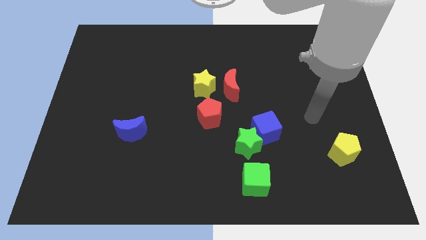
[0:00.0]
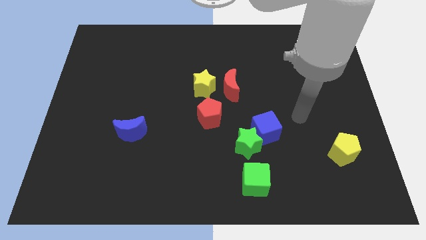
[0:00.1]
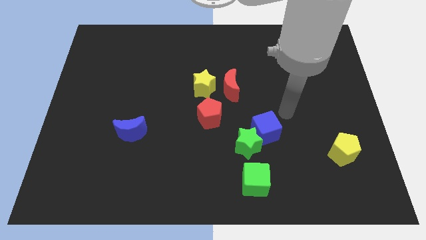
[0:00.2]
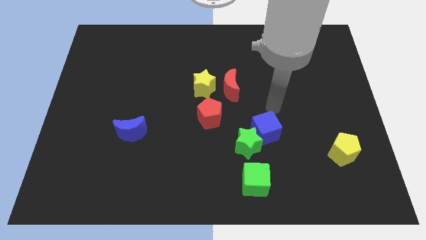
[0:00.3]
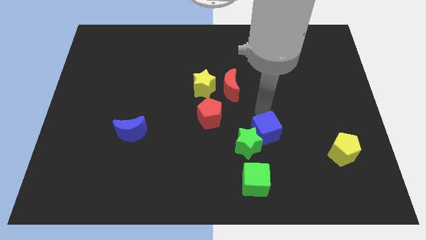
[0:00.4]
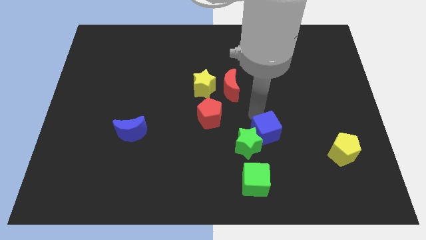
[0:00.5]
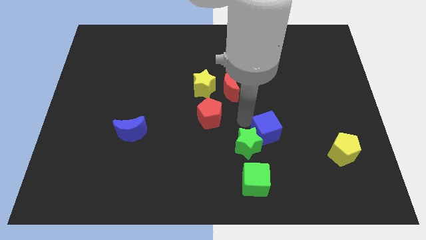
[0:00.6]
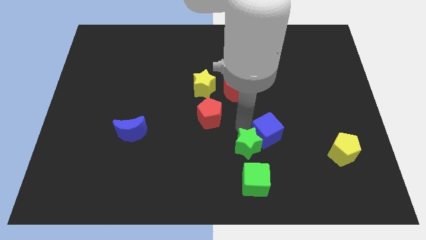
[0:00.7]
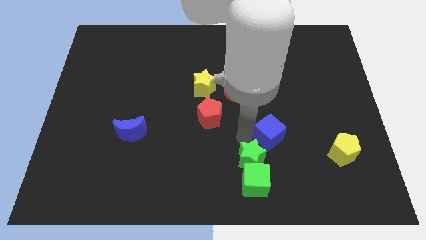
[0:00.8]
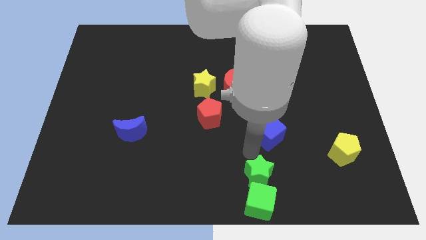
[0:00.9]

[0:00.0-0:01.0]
move the blue cube away from the green star

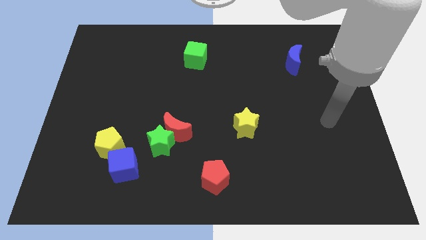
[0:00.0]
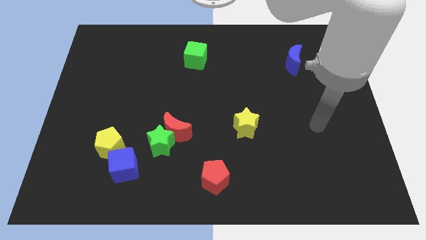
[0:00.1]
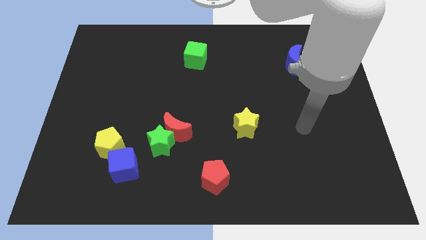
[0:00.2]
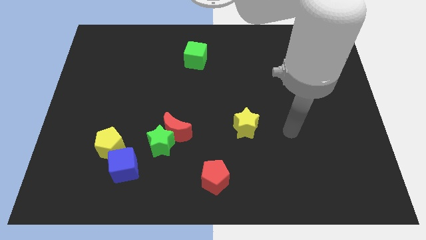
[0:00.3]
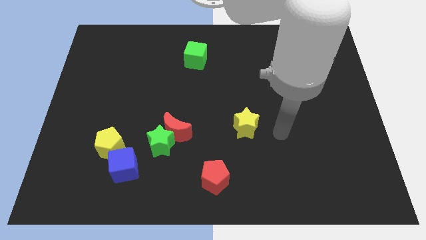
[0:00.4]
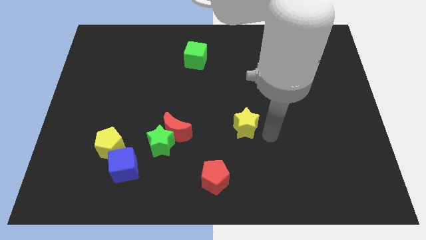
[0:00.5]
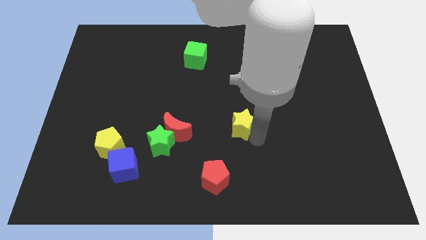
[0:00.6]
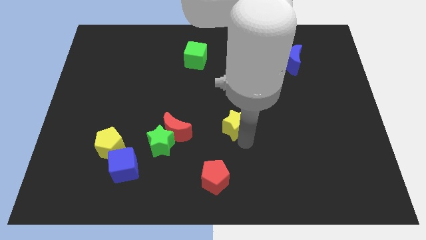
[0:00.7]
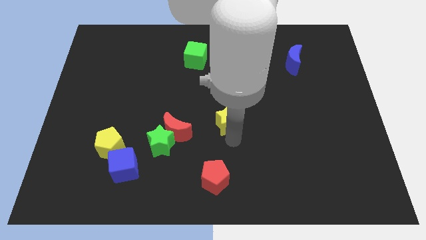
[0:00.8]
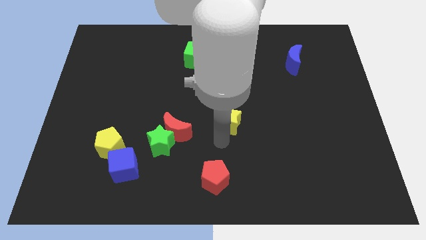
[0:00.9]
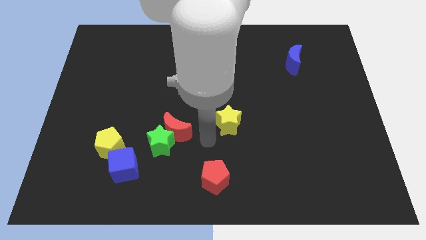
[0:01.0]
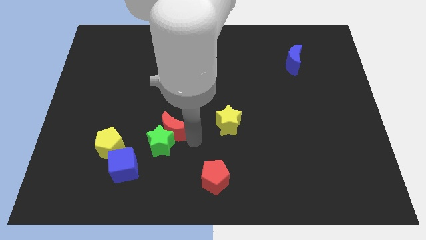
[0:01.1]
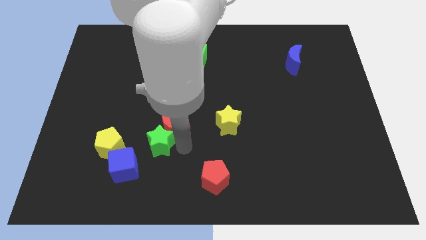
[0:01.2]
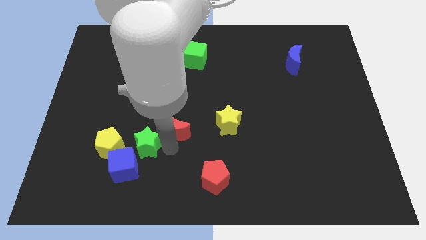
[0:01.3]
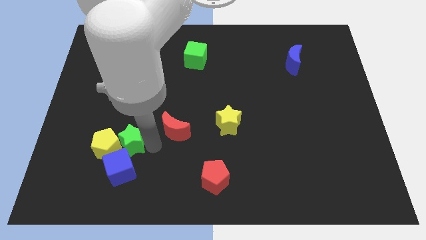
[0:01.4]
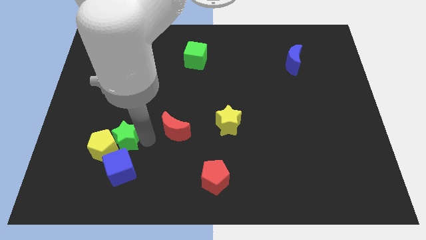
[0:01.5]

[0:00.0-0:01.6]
separate the red moon from the green star

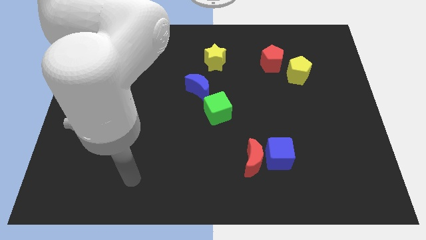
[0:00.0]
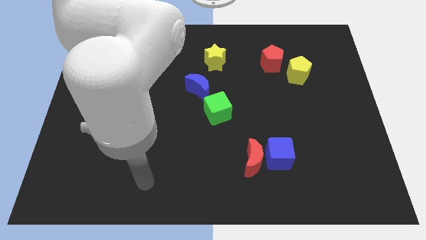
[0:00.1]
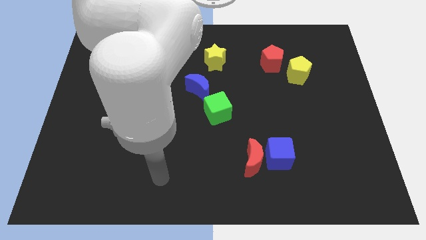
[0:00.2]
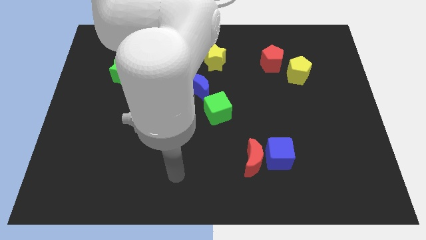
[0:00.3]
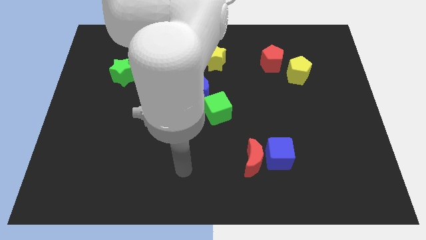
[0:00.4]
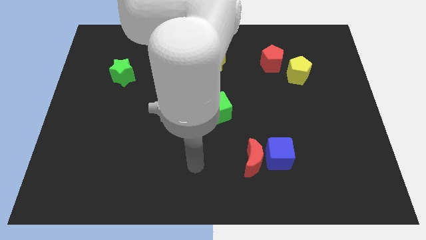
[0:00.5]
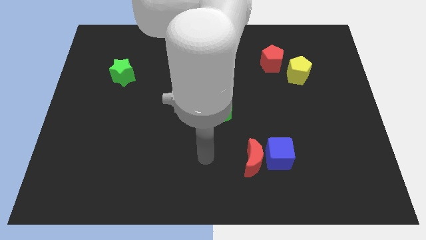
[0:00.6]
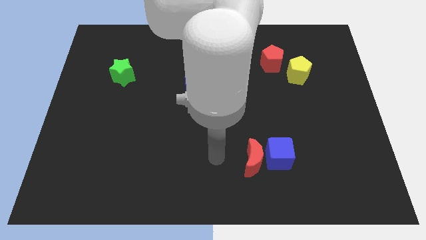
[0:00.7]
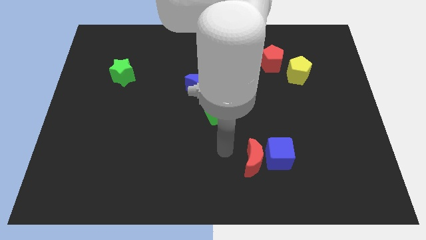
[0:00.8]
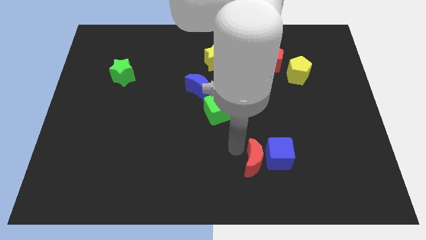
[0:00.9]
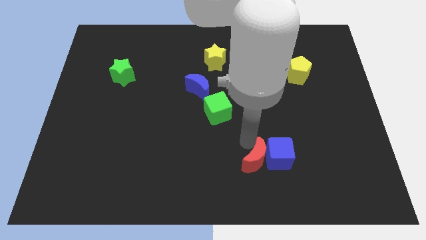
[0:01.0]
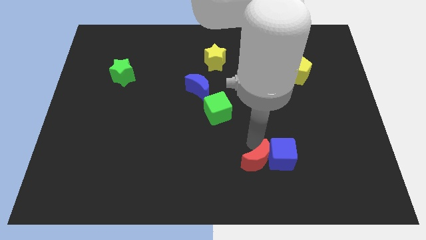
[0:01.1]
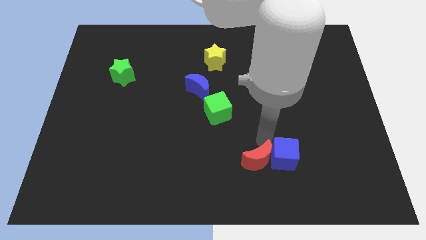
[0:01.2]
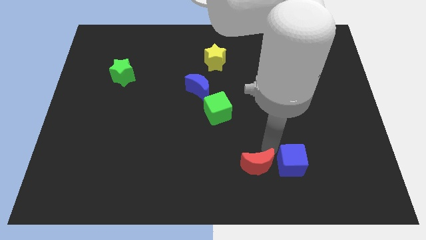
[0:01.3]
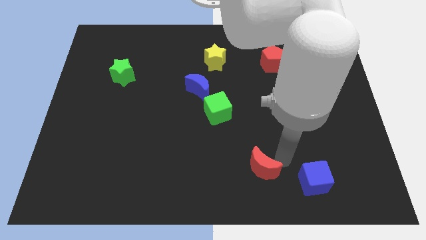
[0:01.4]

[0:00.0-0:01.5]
pull the red moon apart from the blue cube

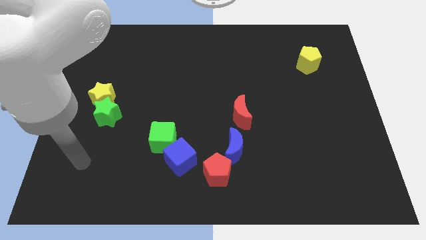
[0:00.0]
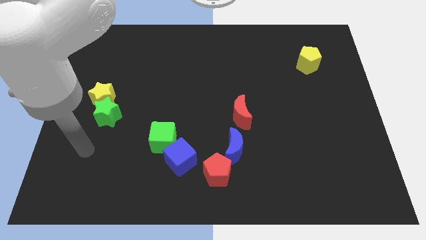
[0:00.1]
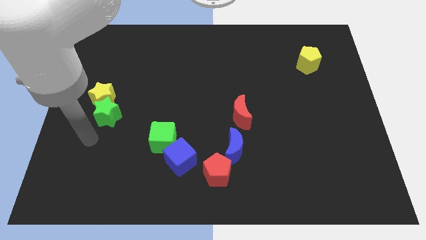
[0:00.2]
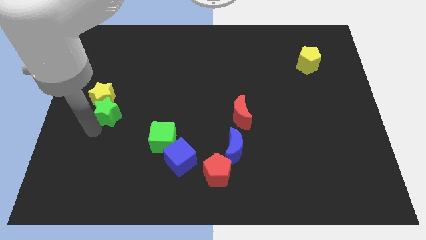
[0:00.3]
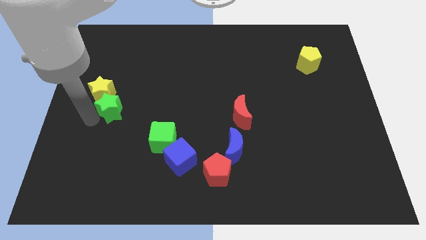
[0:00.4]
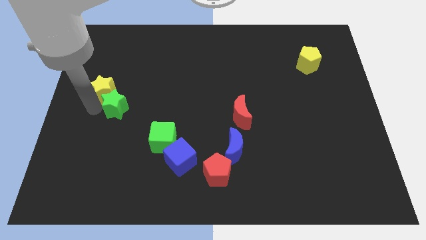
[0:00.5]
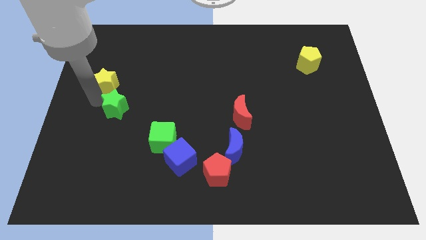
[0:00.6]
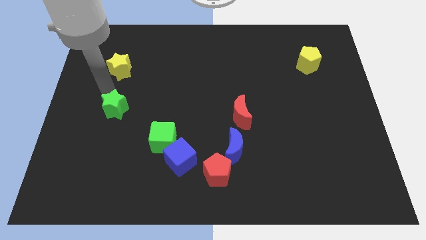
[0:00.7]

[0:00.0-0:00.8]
separate the green star from the yellow star

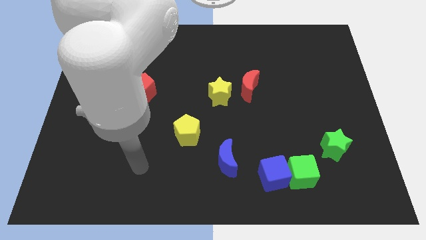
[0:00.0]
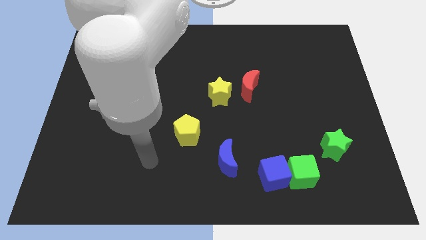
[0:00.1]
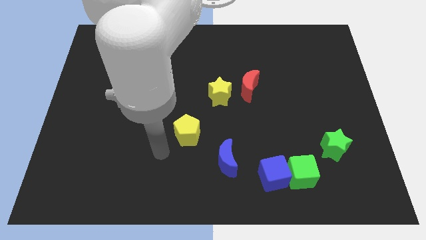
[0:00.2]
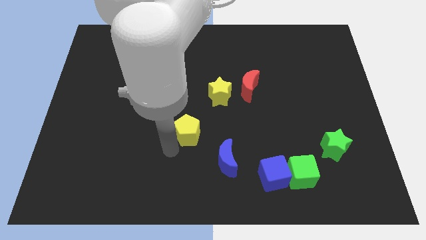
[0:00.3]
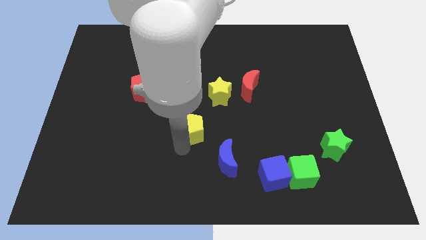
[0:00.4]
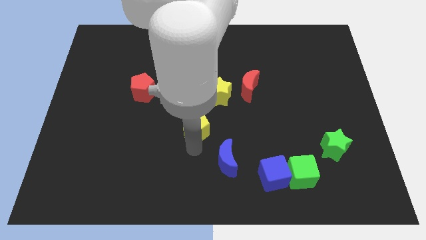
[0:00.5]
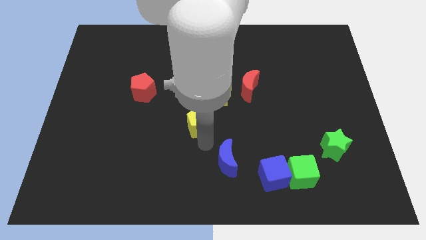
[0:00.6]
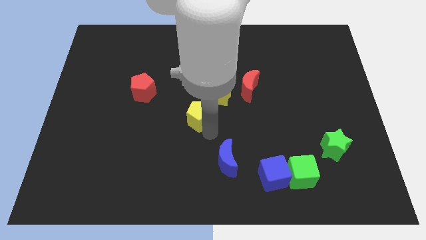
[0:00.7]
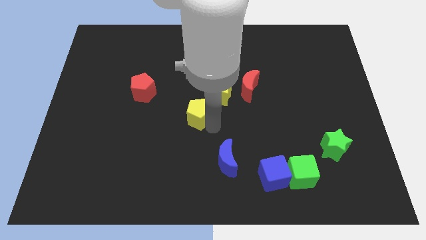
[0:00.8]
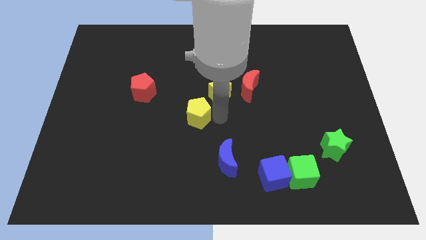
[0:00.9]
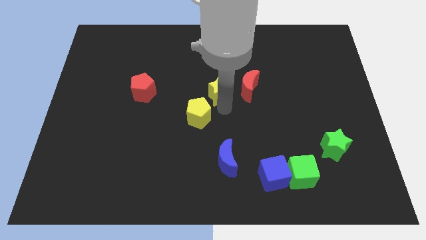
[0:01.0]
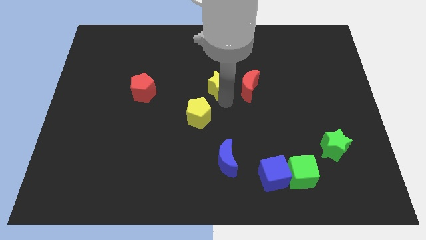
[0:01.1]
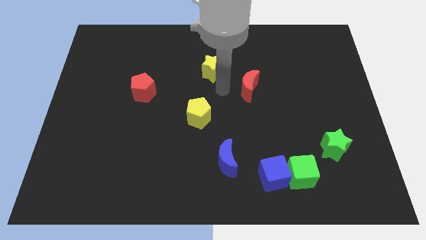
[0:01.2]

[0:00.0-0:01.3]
separate the red moon from the yellow star

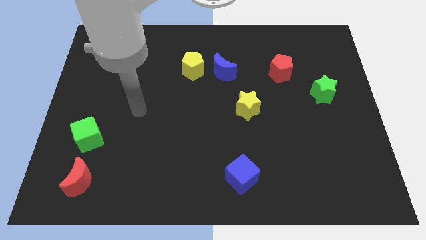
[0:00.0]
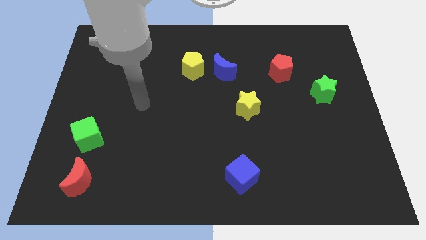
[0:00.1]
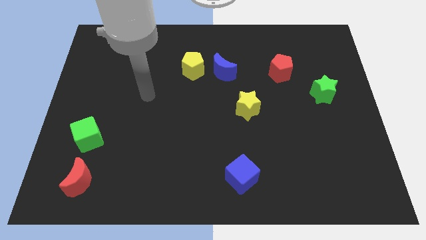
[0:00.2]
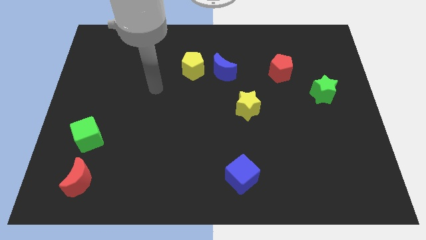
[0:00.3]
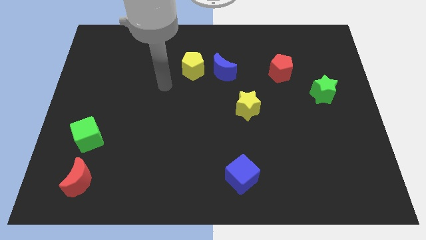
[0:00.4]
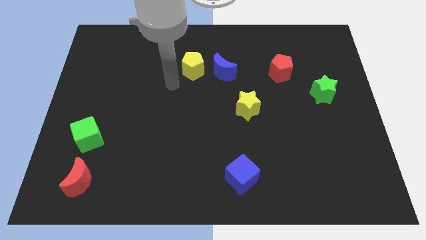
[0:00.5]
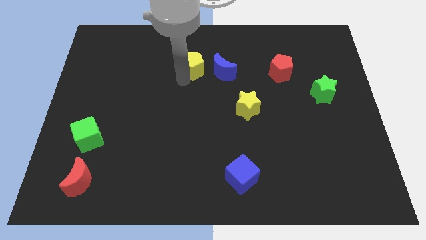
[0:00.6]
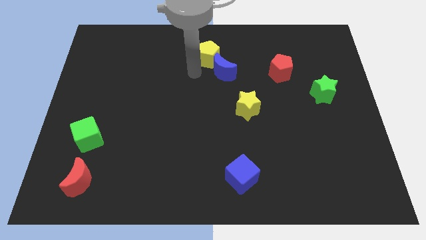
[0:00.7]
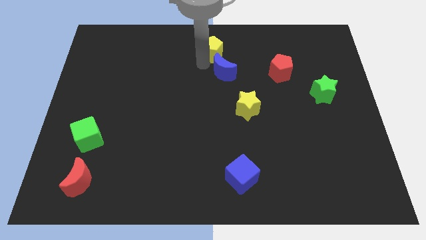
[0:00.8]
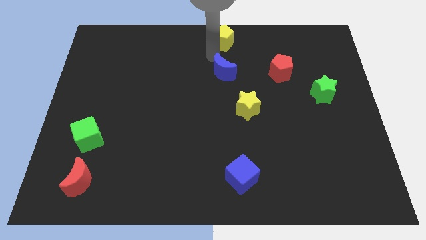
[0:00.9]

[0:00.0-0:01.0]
pull the blue moon apart from the yellow pentagon

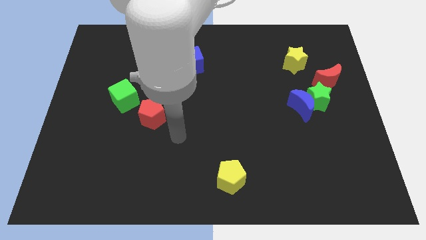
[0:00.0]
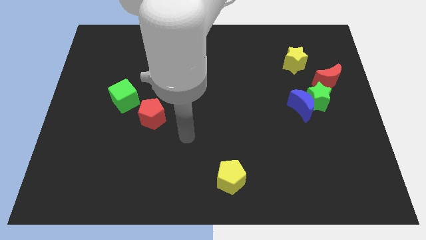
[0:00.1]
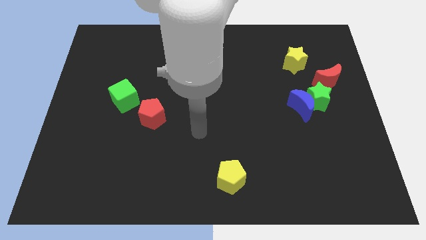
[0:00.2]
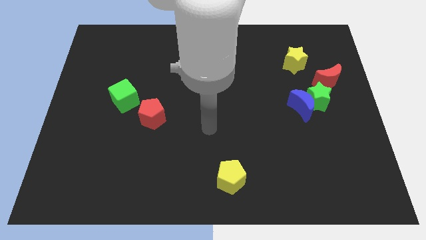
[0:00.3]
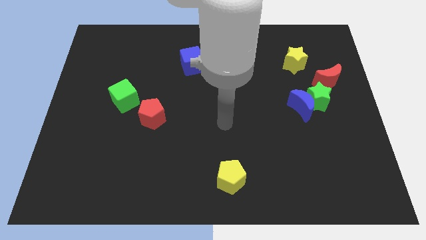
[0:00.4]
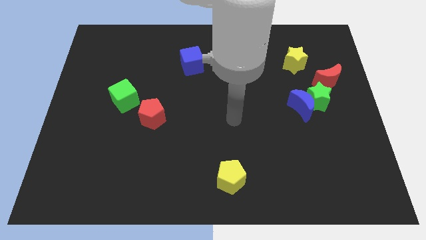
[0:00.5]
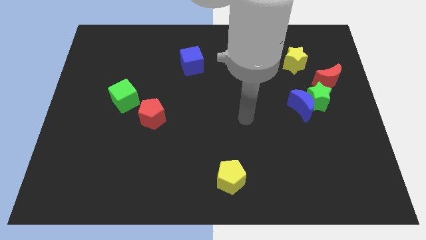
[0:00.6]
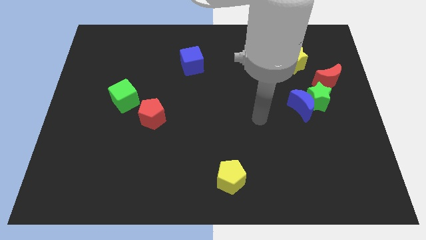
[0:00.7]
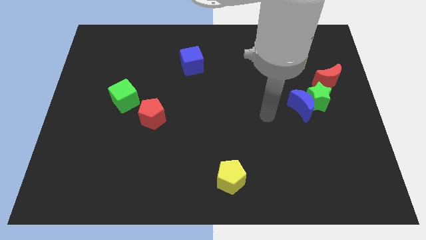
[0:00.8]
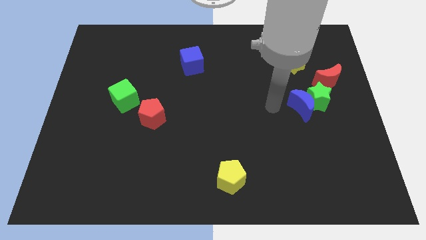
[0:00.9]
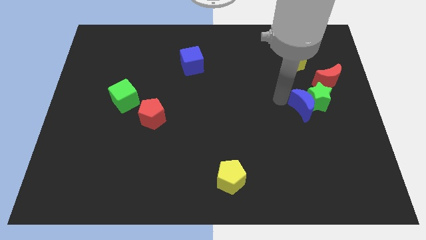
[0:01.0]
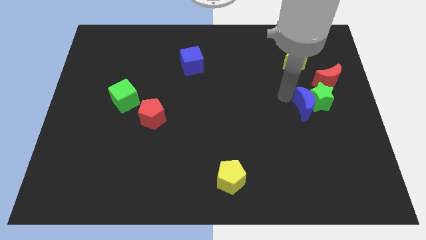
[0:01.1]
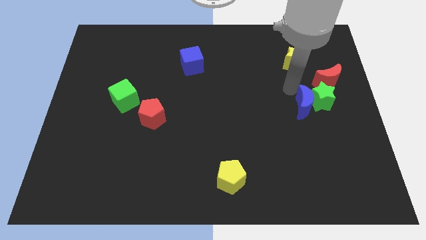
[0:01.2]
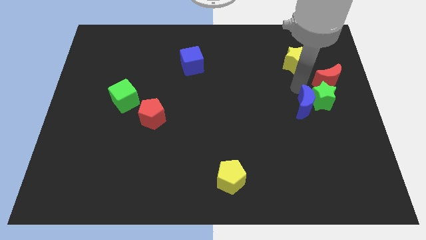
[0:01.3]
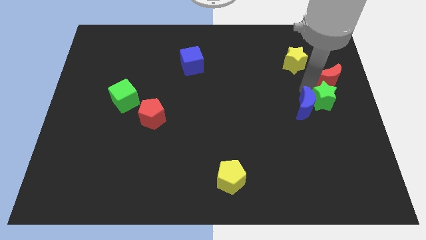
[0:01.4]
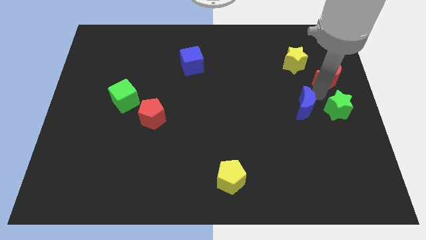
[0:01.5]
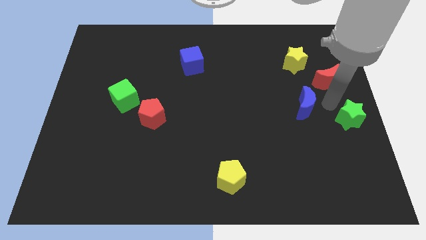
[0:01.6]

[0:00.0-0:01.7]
move the blue moon away from the green star

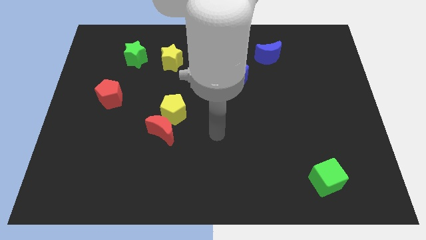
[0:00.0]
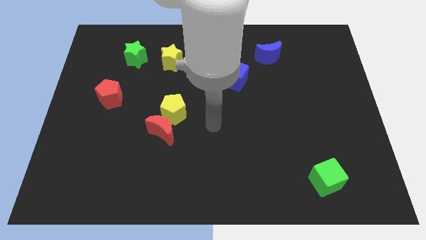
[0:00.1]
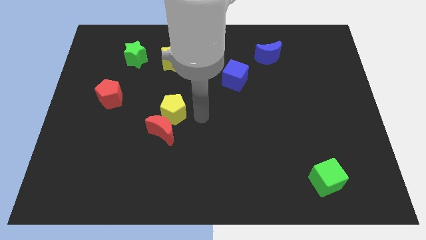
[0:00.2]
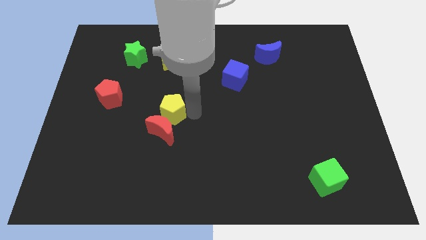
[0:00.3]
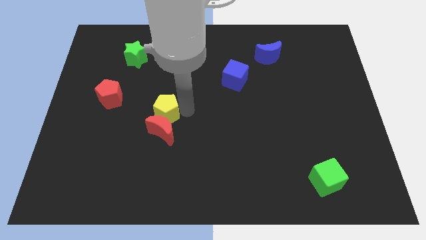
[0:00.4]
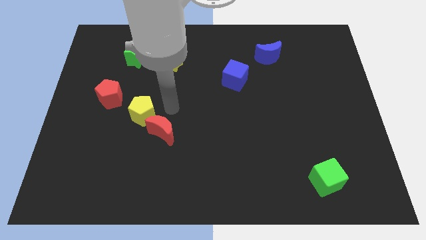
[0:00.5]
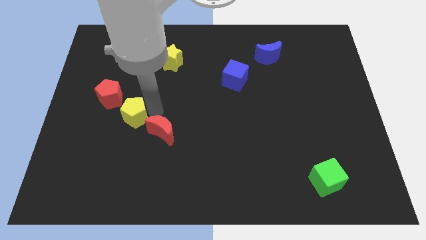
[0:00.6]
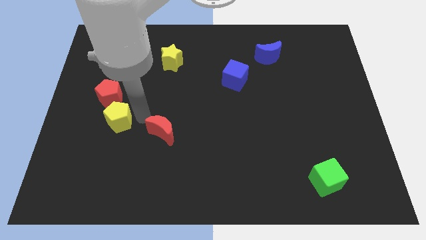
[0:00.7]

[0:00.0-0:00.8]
pull the red moon apart from the yellow pentagon
